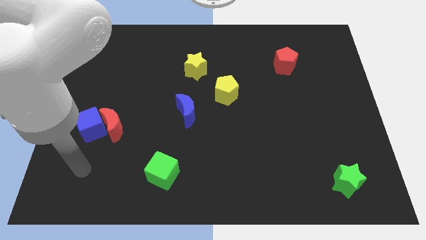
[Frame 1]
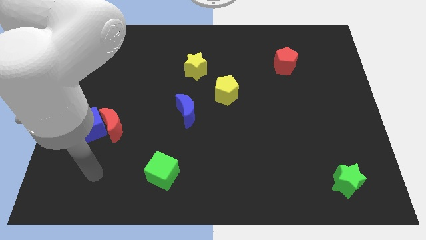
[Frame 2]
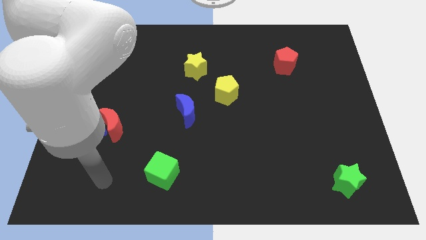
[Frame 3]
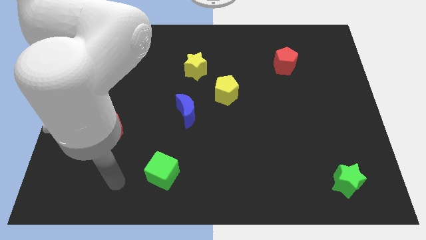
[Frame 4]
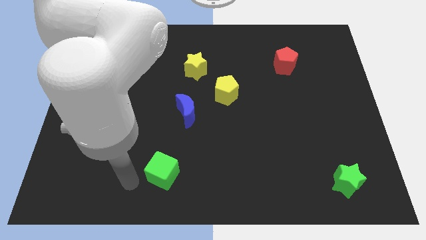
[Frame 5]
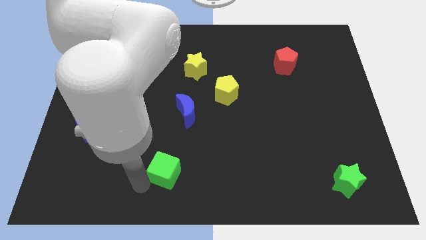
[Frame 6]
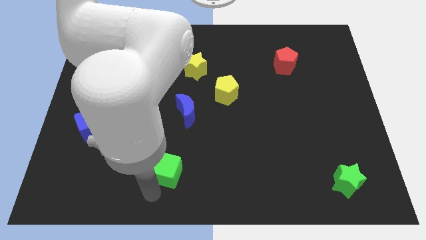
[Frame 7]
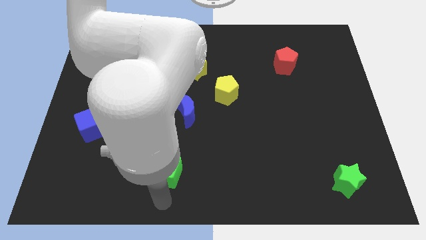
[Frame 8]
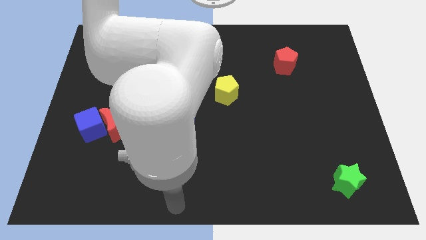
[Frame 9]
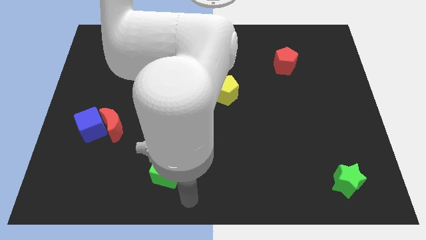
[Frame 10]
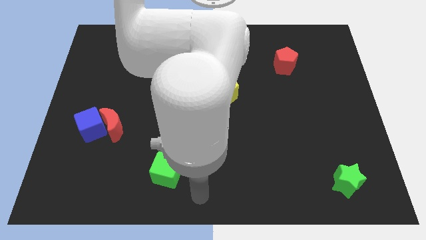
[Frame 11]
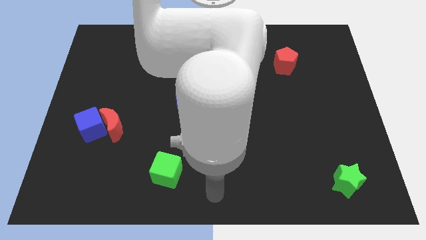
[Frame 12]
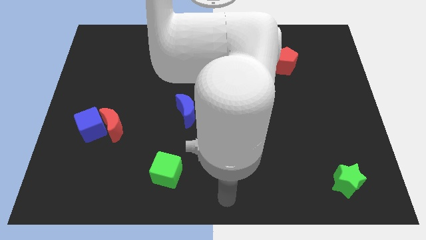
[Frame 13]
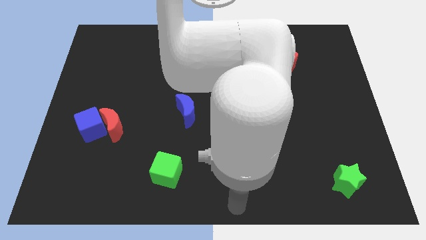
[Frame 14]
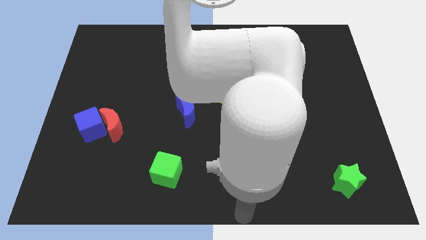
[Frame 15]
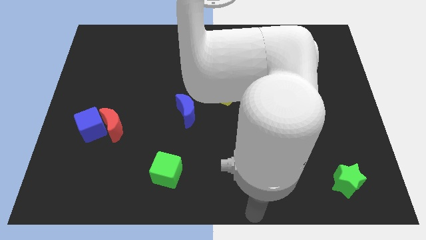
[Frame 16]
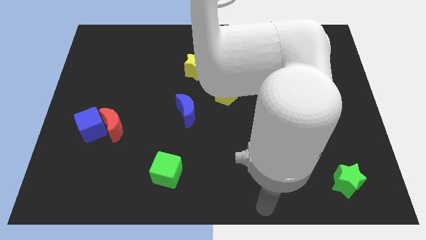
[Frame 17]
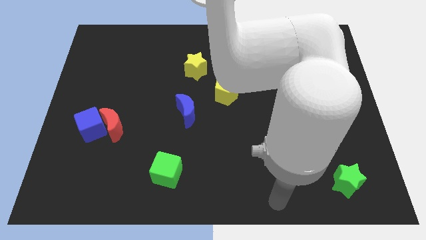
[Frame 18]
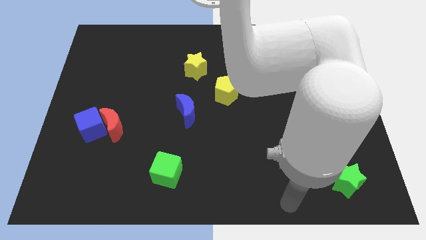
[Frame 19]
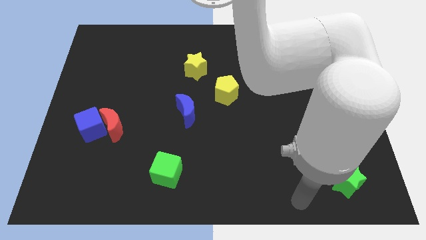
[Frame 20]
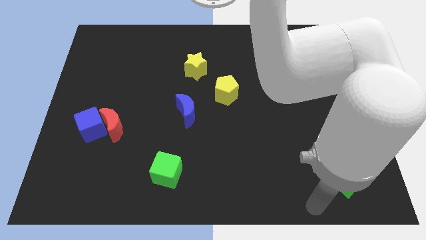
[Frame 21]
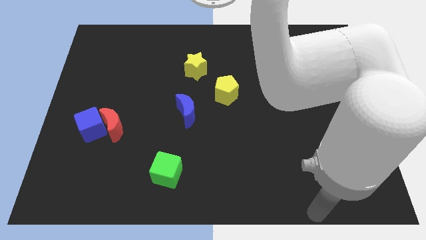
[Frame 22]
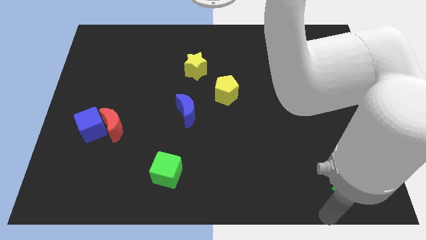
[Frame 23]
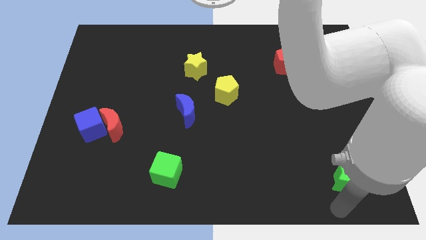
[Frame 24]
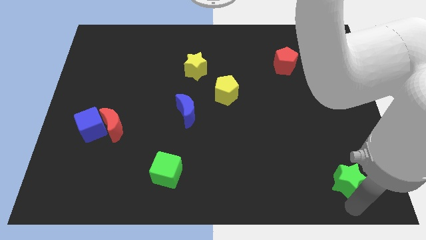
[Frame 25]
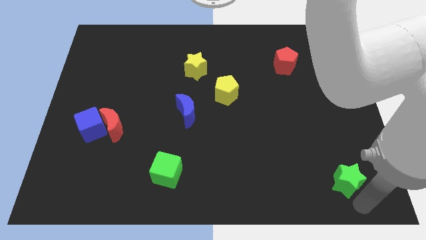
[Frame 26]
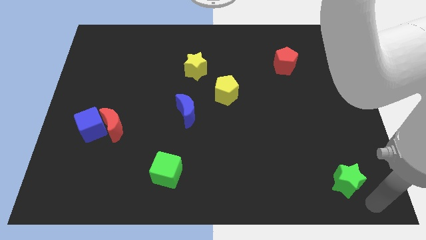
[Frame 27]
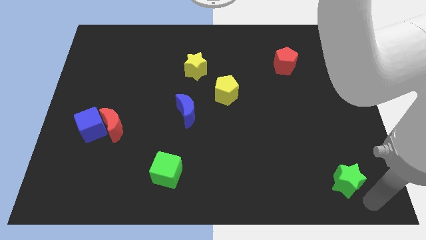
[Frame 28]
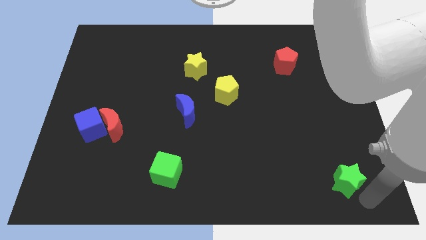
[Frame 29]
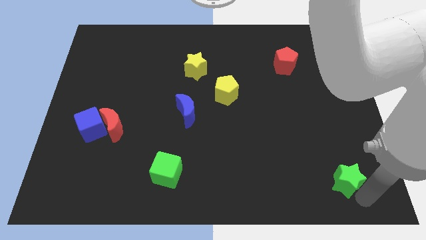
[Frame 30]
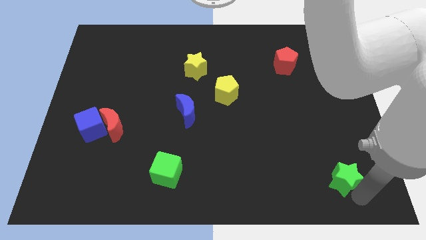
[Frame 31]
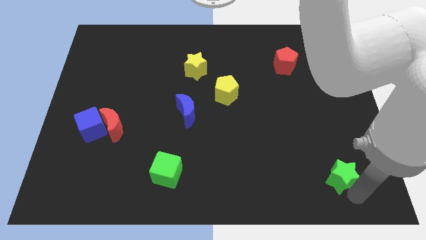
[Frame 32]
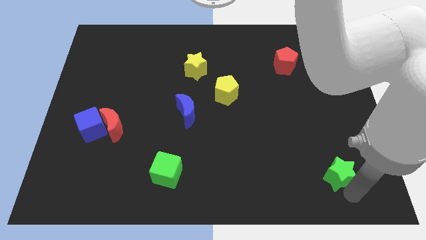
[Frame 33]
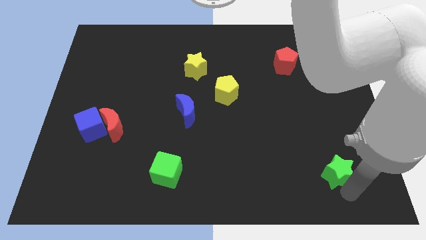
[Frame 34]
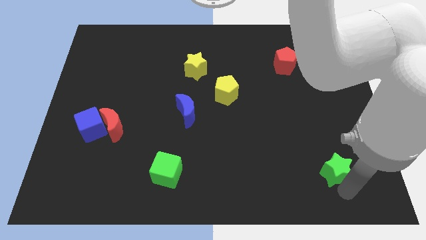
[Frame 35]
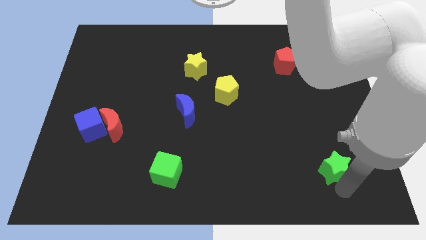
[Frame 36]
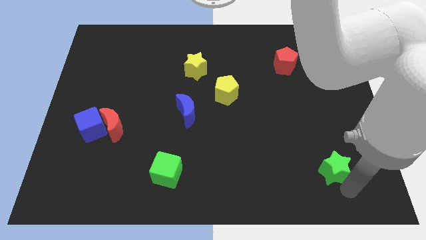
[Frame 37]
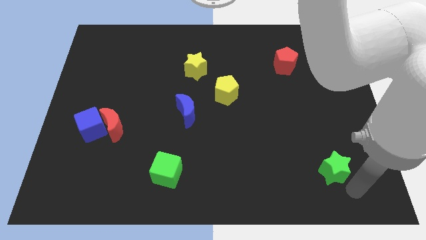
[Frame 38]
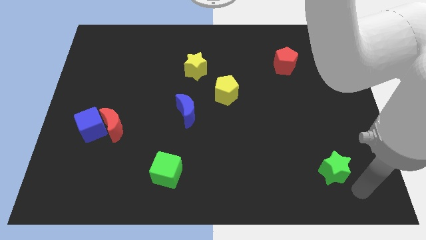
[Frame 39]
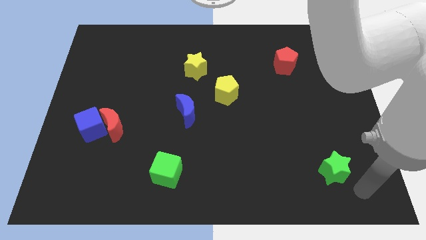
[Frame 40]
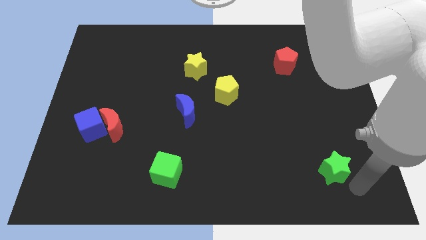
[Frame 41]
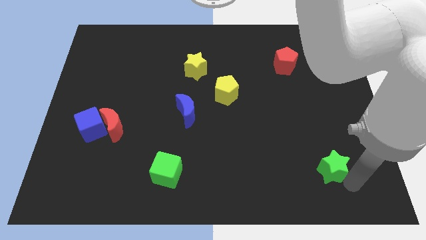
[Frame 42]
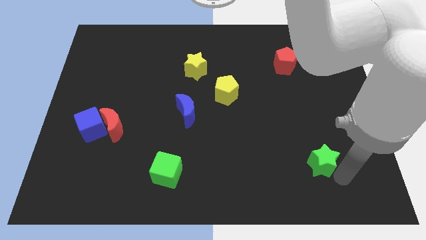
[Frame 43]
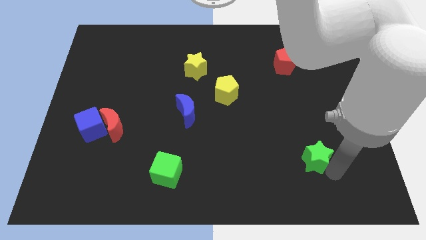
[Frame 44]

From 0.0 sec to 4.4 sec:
slightly move the green star upwards and then to the left

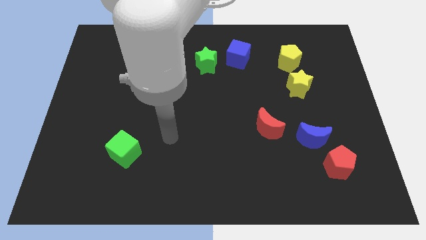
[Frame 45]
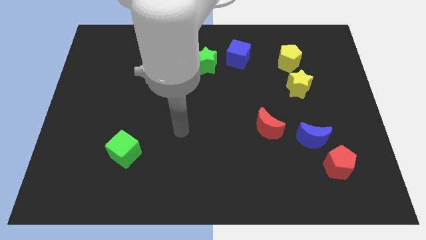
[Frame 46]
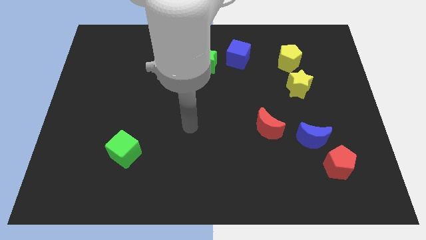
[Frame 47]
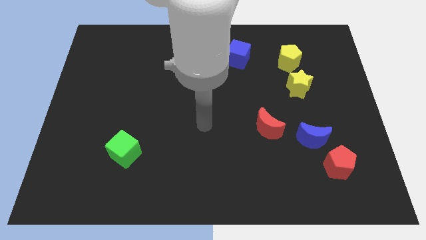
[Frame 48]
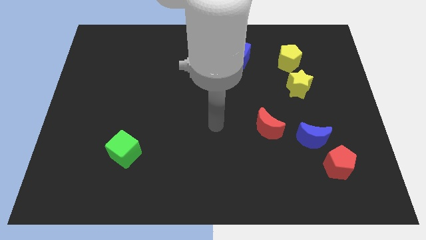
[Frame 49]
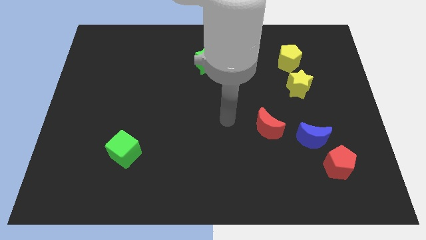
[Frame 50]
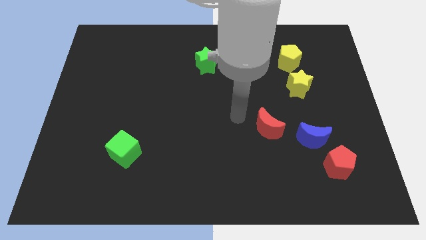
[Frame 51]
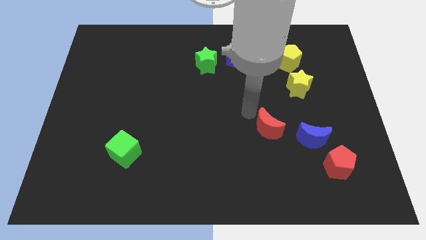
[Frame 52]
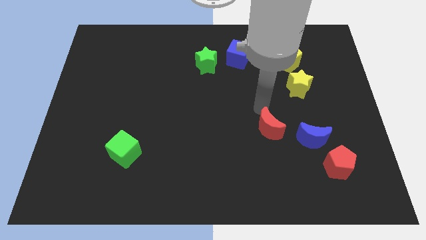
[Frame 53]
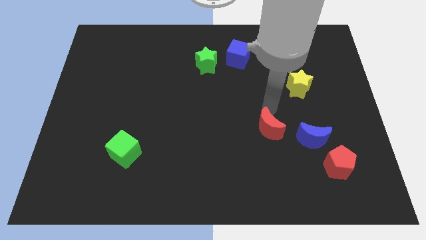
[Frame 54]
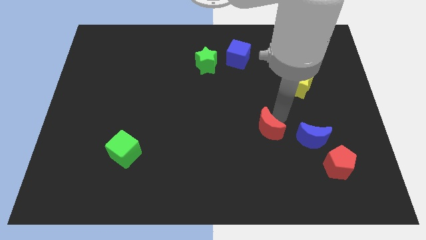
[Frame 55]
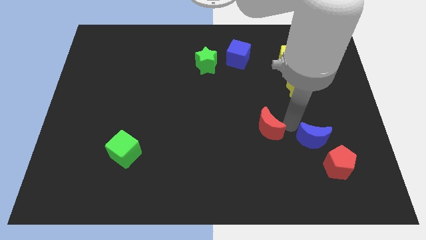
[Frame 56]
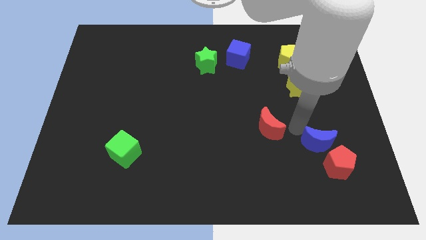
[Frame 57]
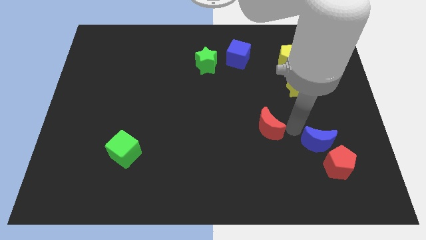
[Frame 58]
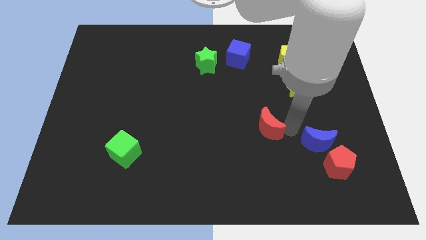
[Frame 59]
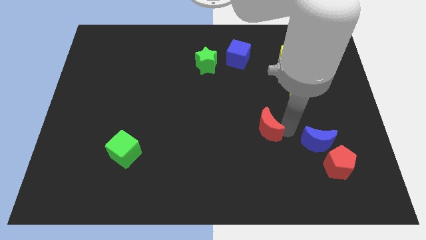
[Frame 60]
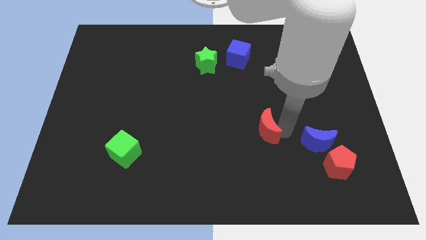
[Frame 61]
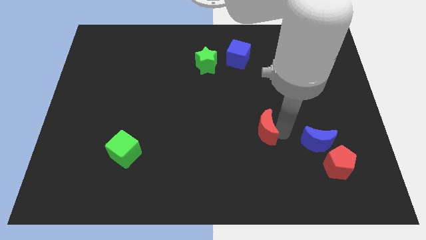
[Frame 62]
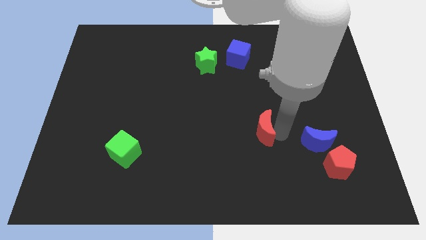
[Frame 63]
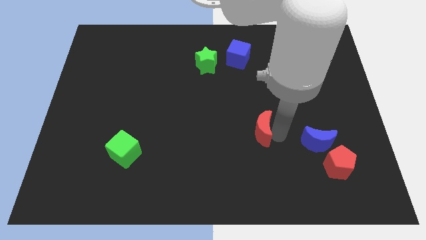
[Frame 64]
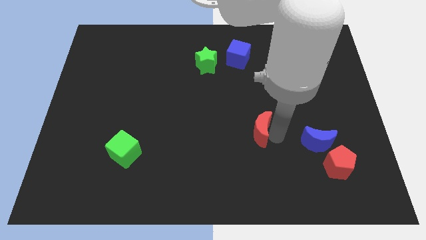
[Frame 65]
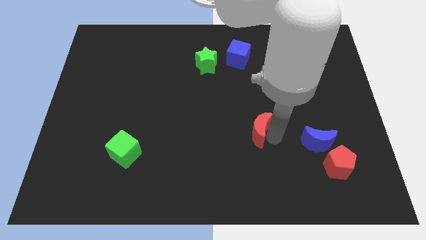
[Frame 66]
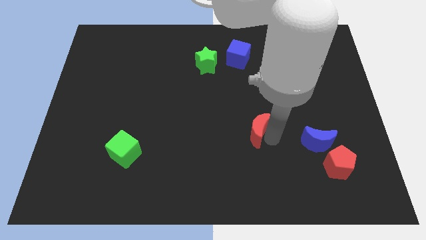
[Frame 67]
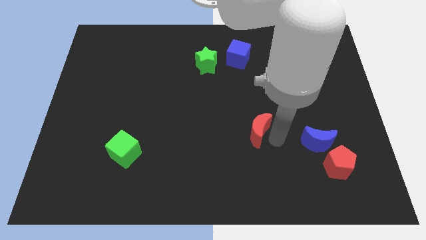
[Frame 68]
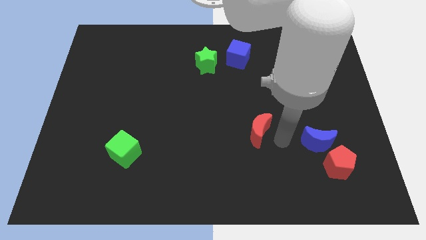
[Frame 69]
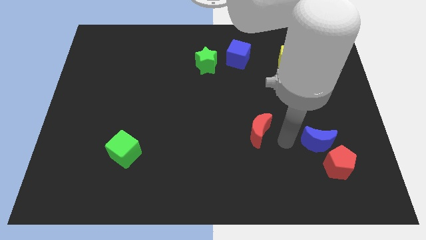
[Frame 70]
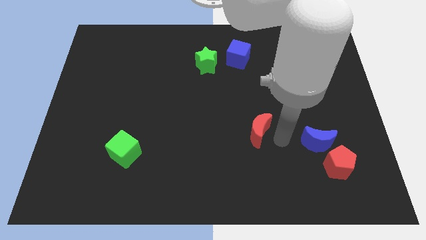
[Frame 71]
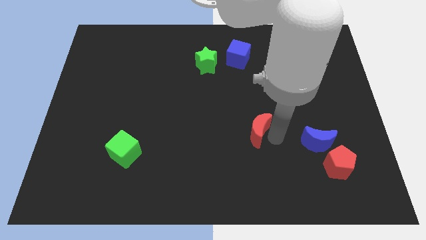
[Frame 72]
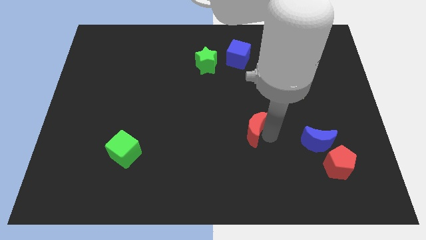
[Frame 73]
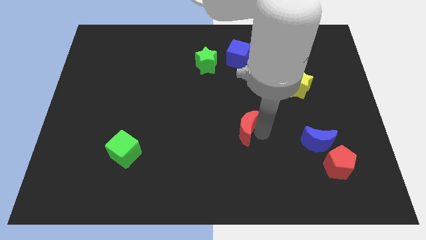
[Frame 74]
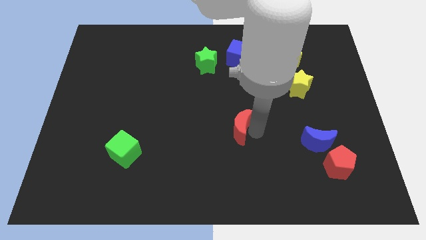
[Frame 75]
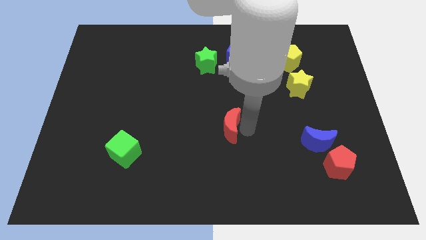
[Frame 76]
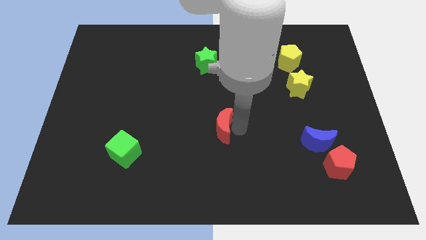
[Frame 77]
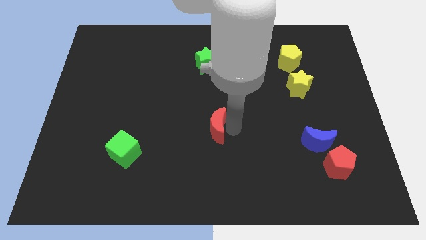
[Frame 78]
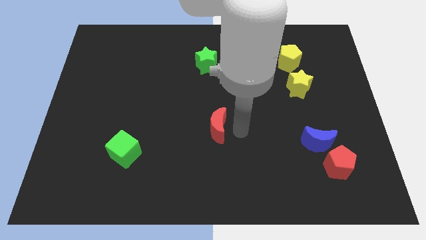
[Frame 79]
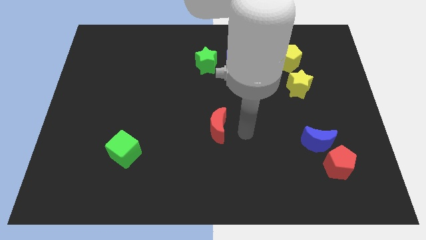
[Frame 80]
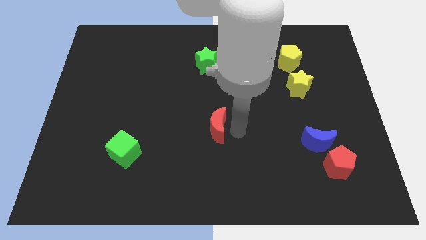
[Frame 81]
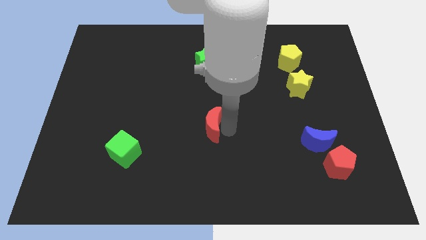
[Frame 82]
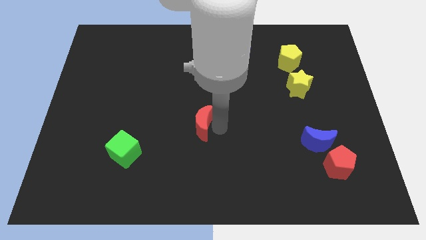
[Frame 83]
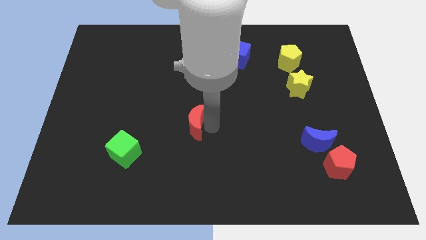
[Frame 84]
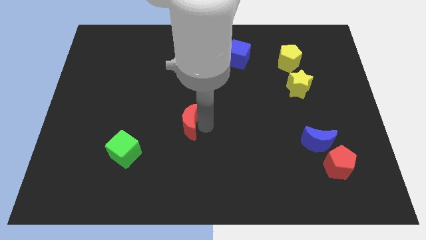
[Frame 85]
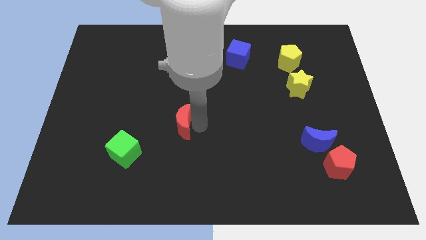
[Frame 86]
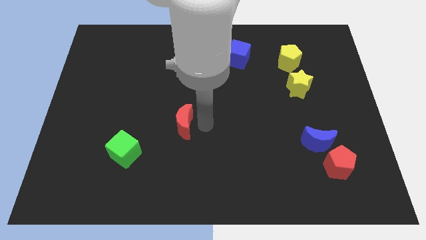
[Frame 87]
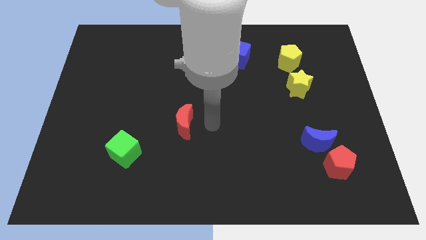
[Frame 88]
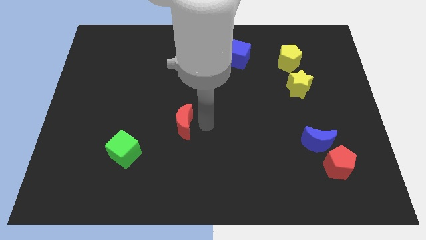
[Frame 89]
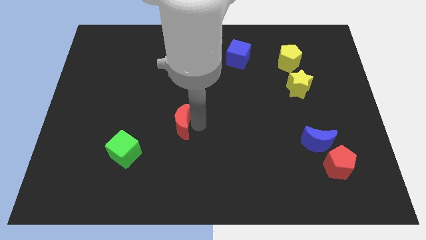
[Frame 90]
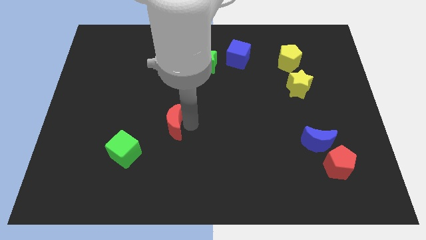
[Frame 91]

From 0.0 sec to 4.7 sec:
push the red moon to the left
